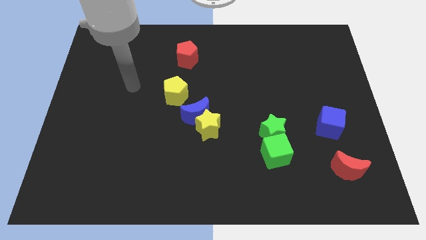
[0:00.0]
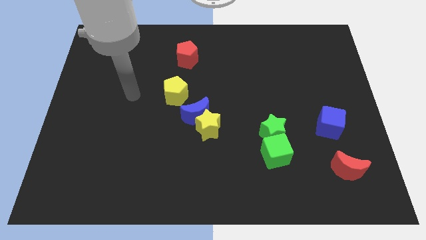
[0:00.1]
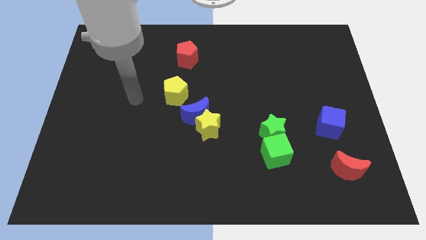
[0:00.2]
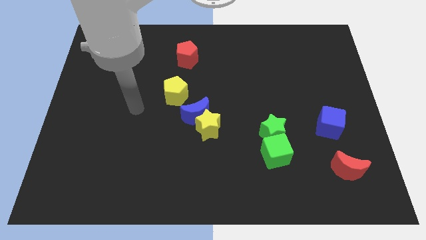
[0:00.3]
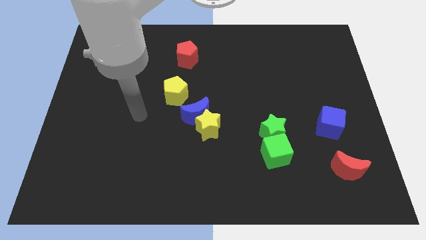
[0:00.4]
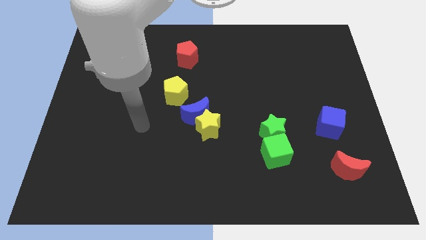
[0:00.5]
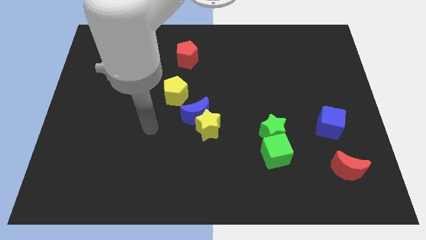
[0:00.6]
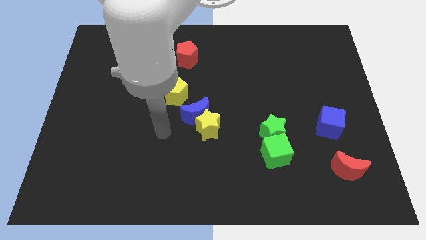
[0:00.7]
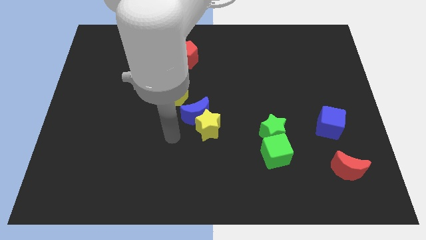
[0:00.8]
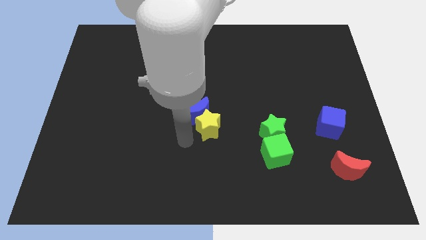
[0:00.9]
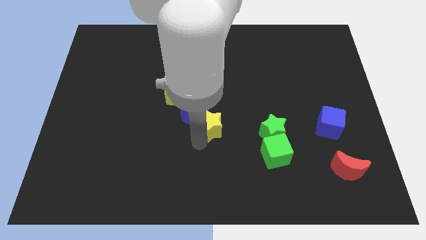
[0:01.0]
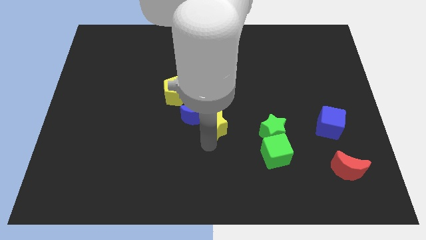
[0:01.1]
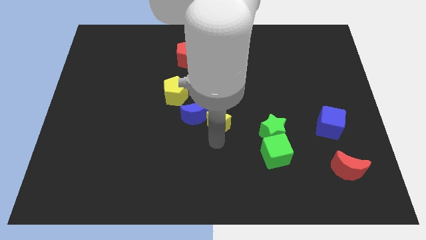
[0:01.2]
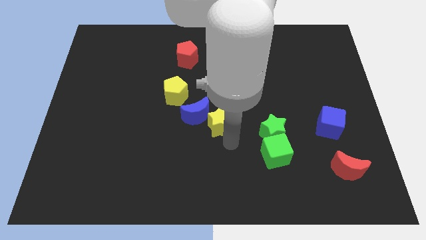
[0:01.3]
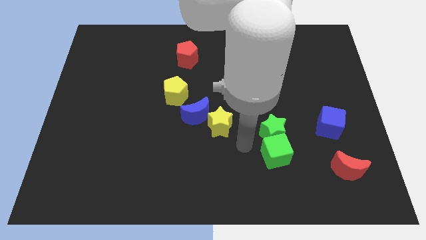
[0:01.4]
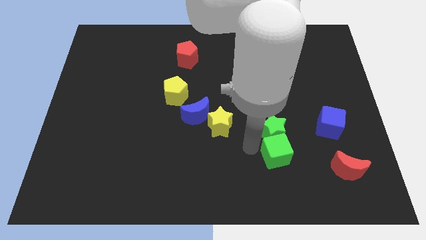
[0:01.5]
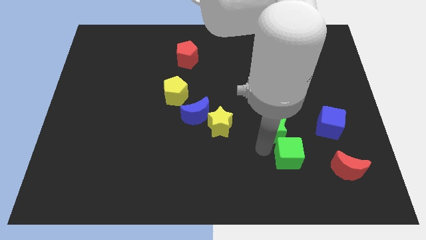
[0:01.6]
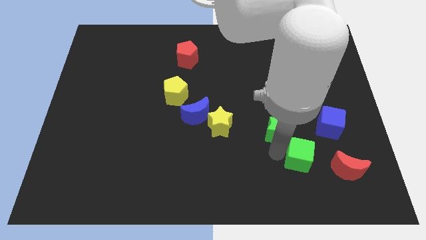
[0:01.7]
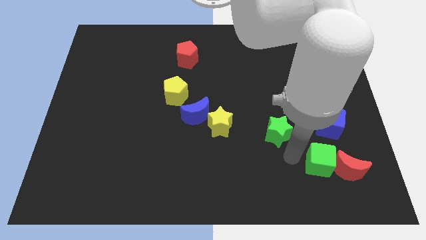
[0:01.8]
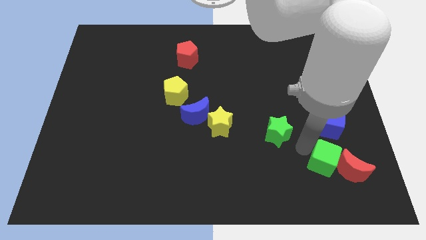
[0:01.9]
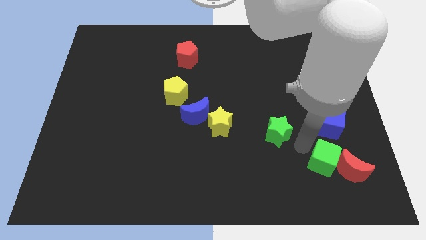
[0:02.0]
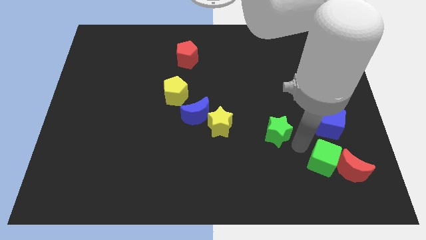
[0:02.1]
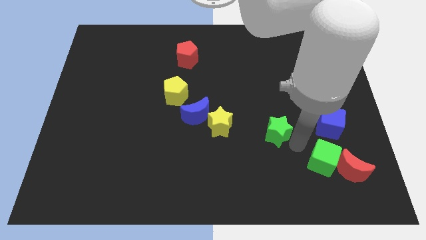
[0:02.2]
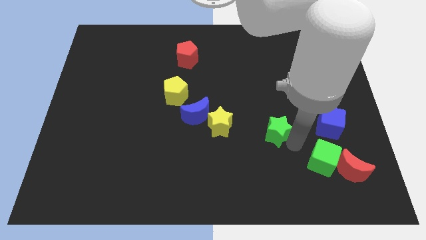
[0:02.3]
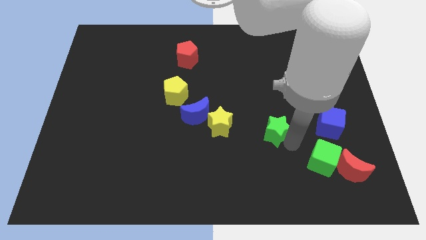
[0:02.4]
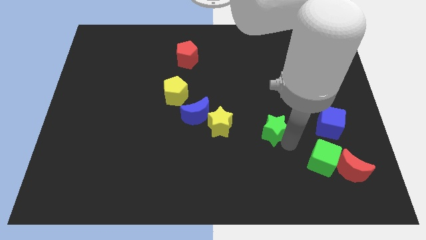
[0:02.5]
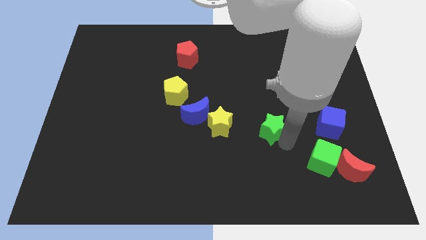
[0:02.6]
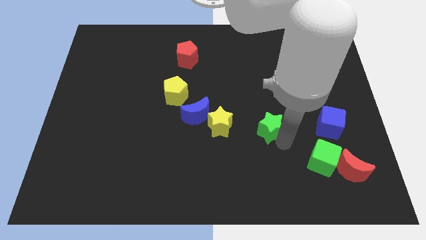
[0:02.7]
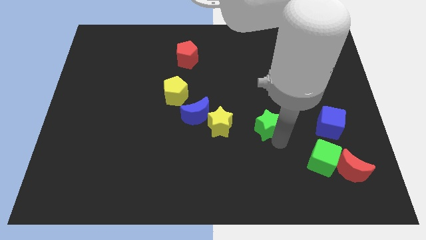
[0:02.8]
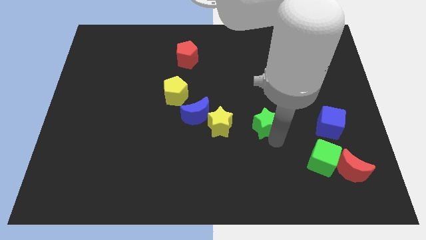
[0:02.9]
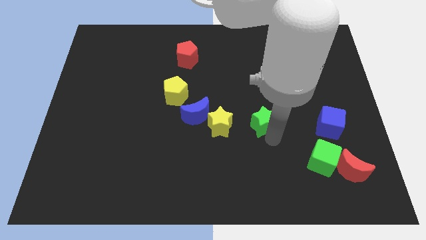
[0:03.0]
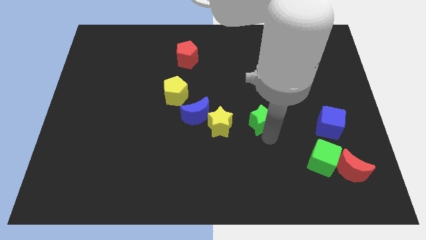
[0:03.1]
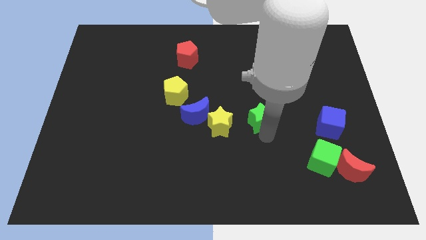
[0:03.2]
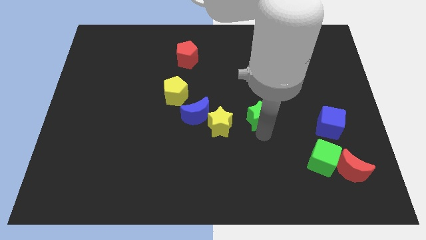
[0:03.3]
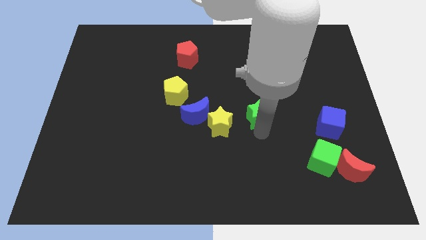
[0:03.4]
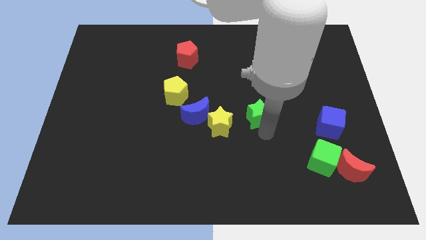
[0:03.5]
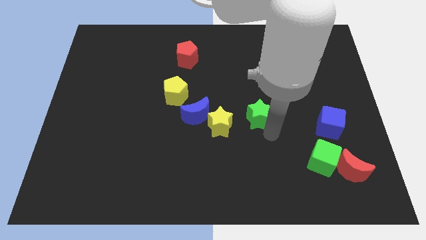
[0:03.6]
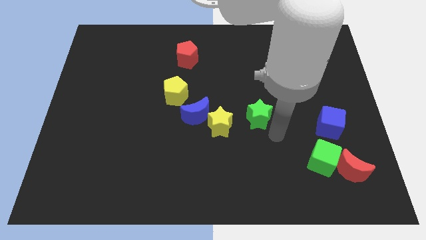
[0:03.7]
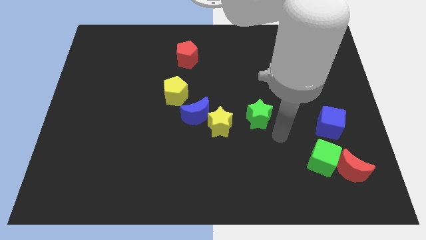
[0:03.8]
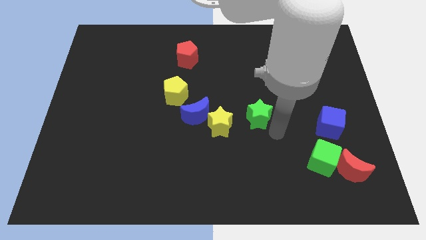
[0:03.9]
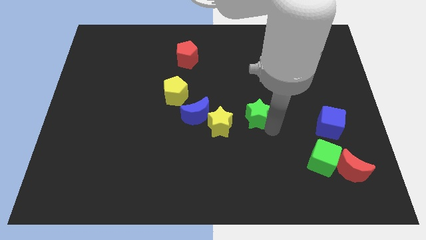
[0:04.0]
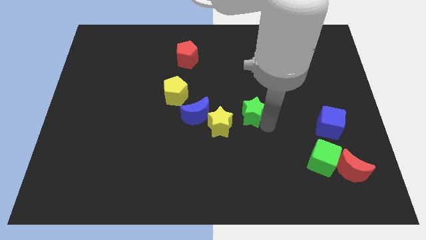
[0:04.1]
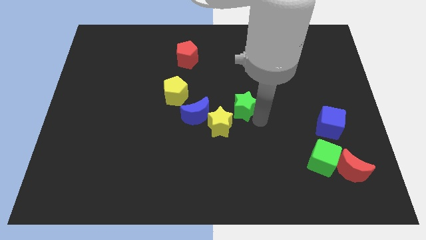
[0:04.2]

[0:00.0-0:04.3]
slightly slide the green star upwards and left

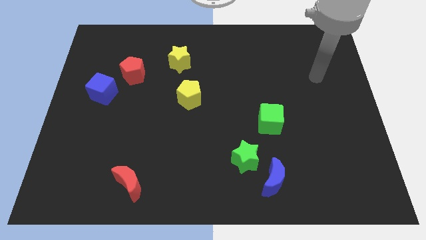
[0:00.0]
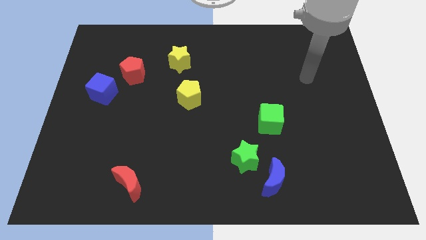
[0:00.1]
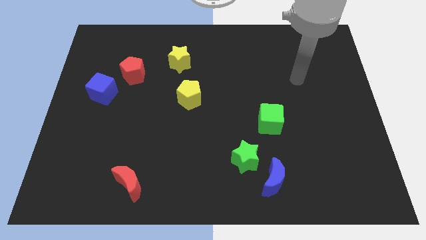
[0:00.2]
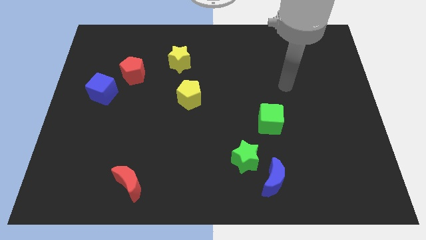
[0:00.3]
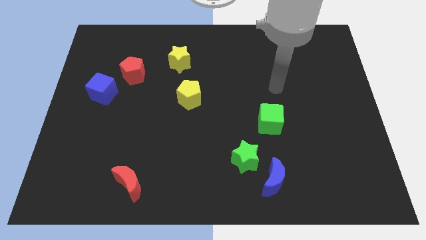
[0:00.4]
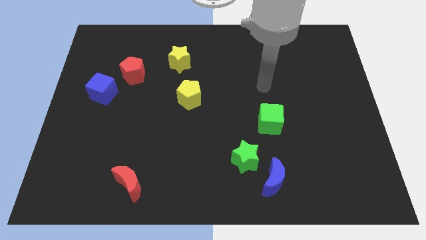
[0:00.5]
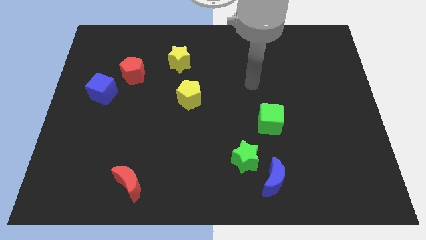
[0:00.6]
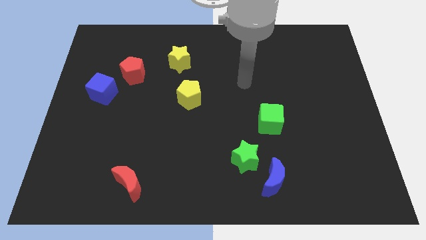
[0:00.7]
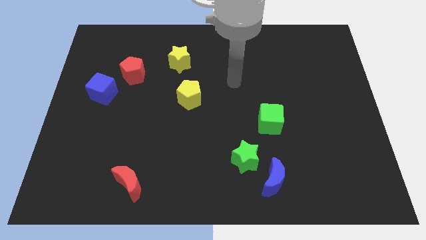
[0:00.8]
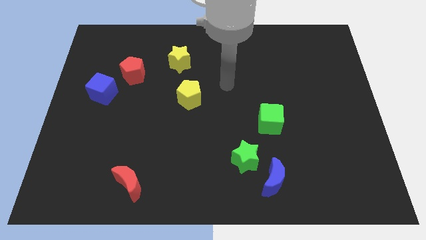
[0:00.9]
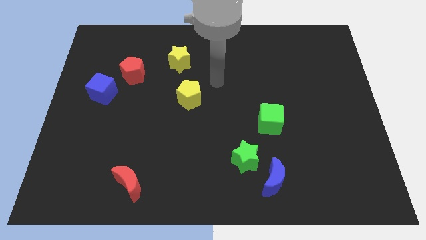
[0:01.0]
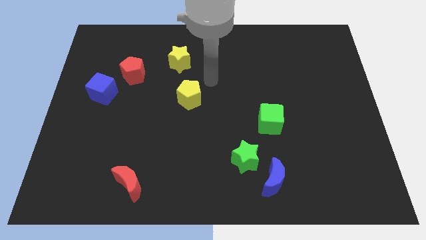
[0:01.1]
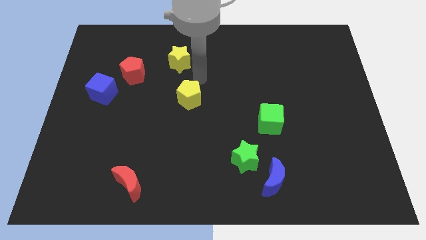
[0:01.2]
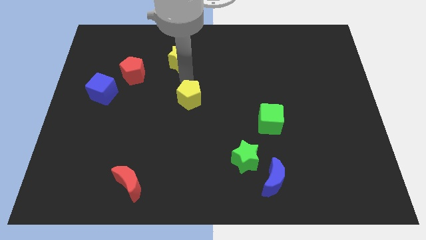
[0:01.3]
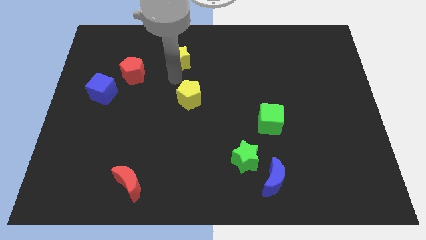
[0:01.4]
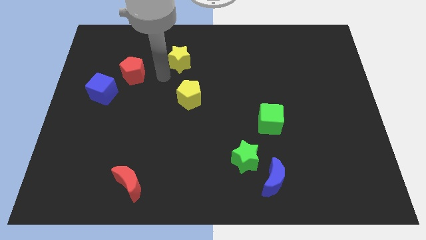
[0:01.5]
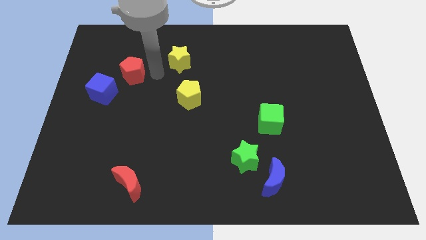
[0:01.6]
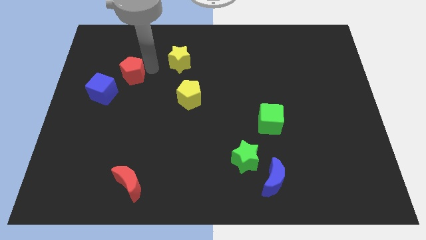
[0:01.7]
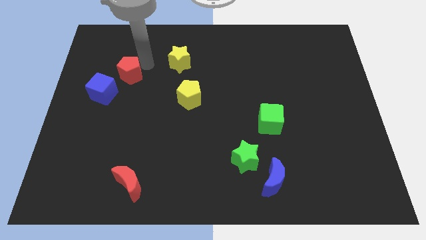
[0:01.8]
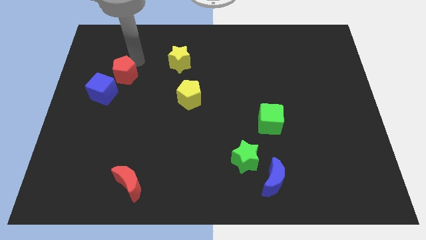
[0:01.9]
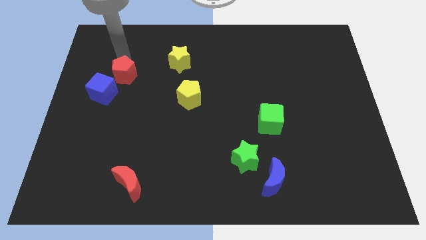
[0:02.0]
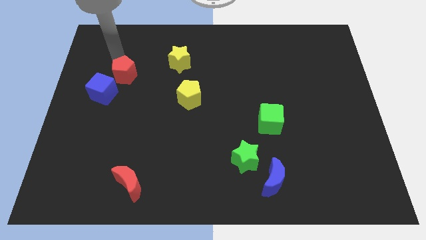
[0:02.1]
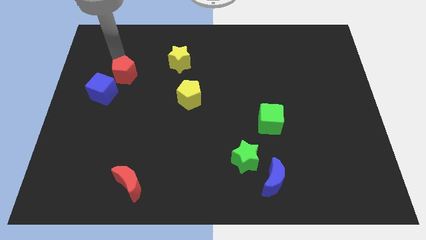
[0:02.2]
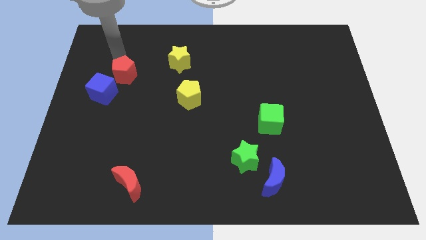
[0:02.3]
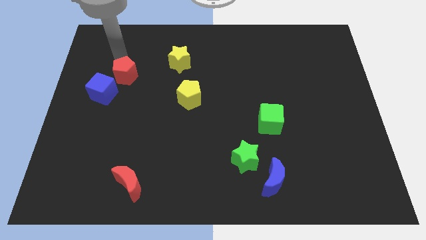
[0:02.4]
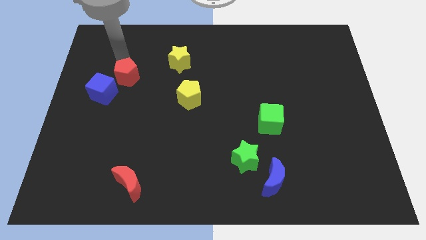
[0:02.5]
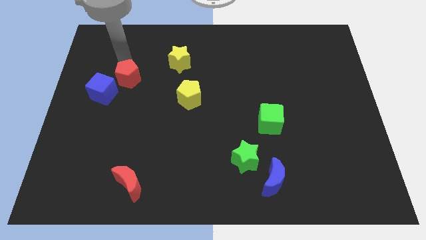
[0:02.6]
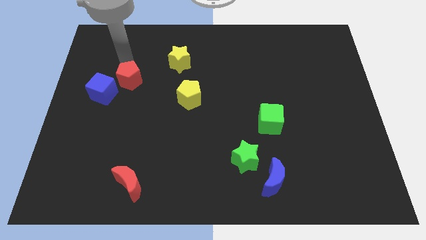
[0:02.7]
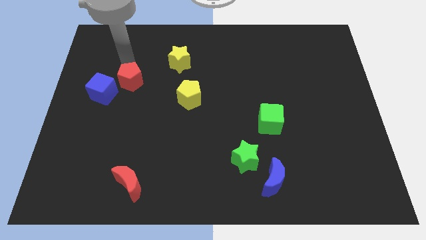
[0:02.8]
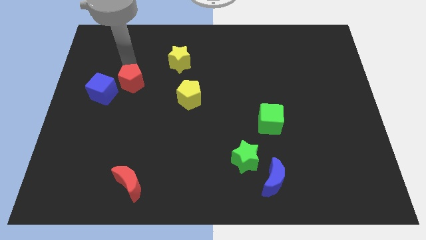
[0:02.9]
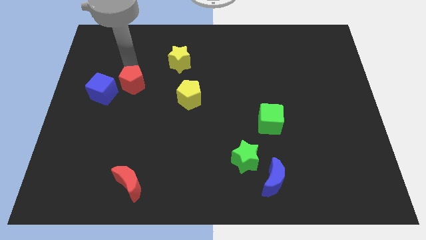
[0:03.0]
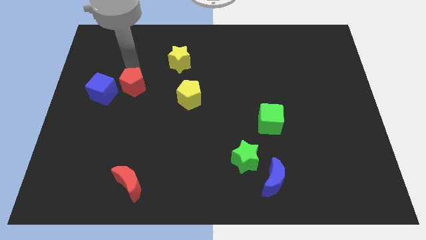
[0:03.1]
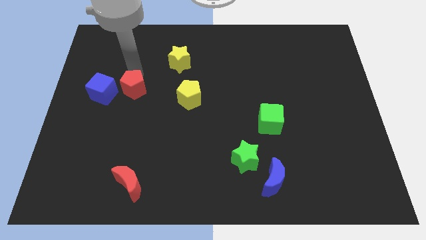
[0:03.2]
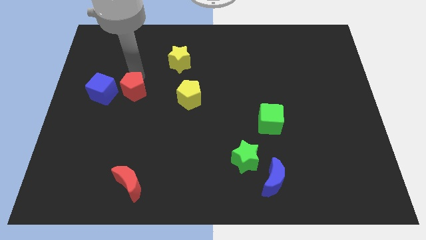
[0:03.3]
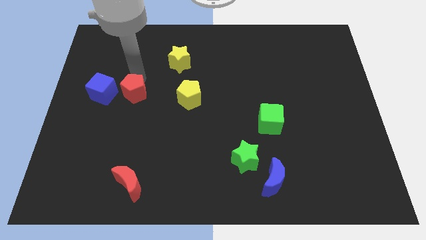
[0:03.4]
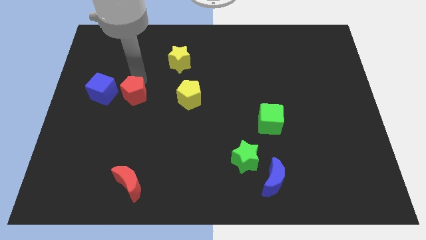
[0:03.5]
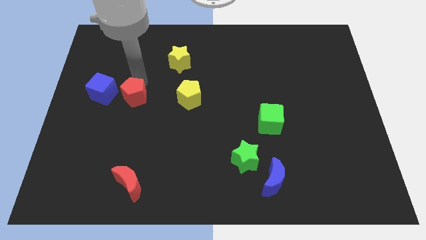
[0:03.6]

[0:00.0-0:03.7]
slightly push the red pentagon down
